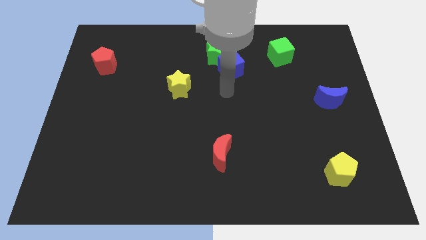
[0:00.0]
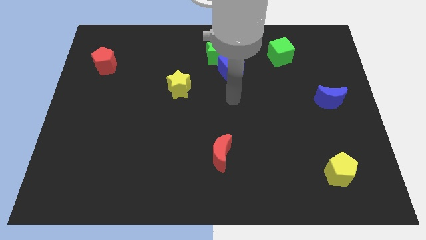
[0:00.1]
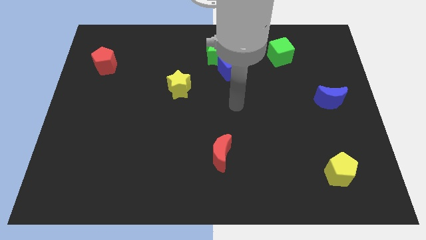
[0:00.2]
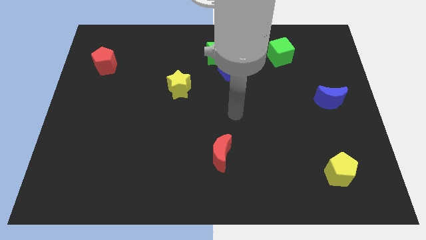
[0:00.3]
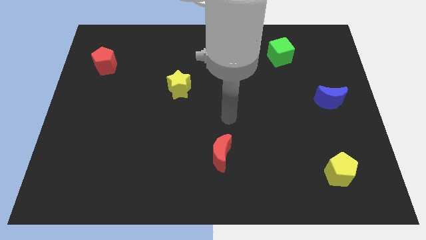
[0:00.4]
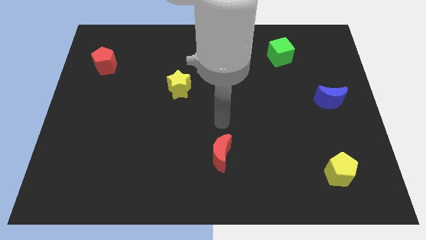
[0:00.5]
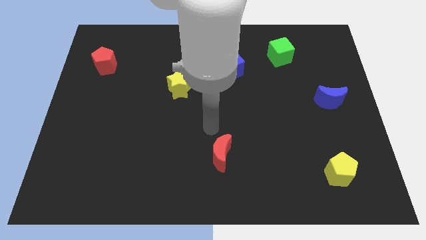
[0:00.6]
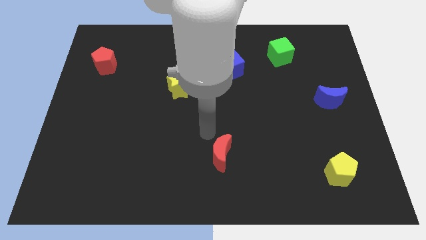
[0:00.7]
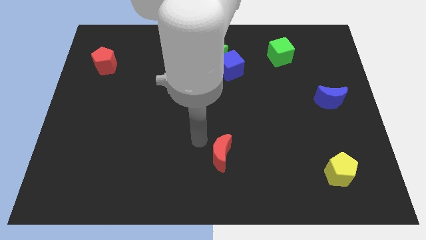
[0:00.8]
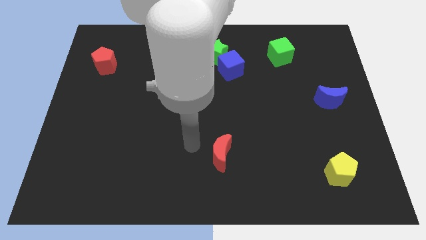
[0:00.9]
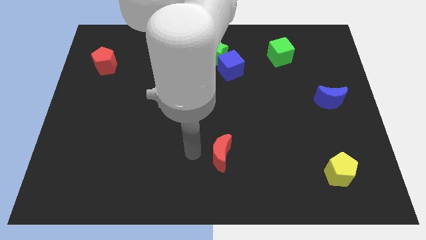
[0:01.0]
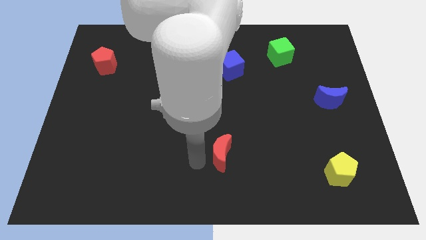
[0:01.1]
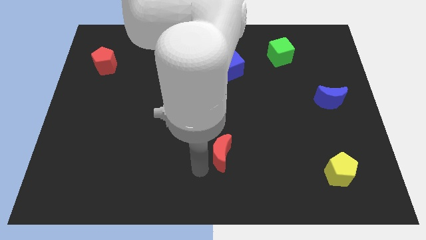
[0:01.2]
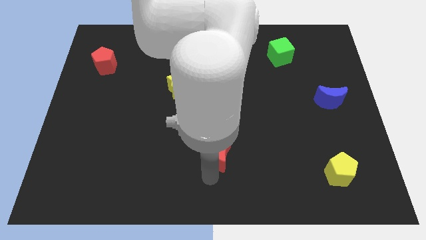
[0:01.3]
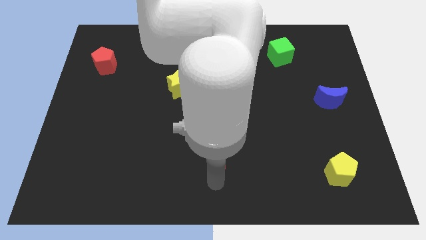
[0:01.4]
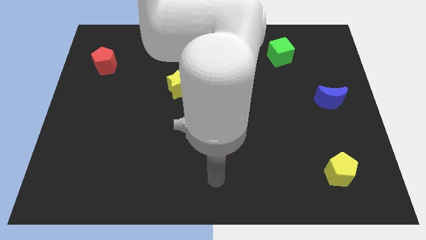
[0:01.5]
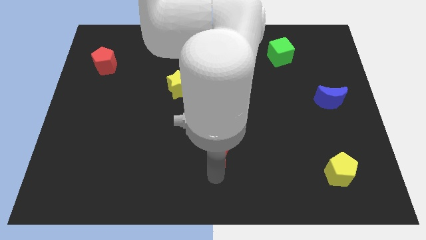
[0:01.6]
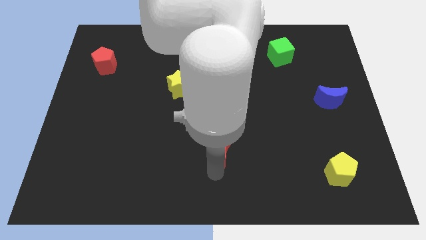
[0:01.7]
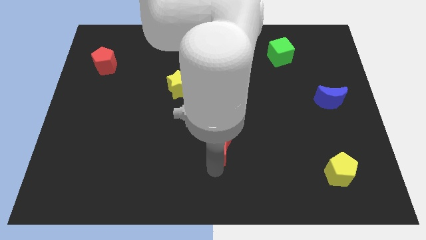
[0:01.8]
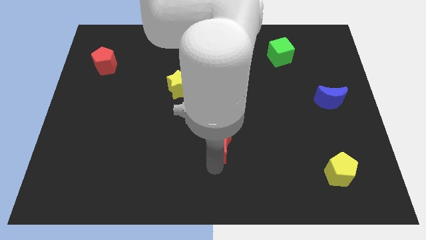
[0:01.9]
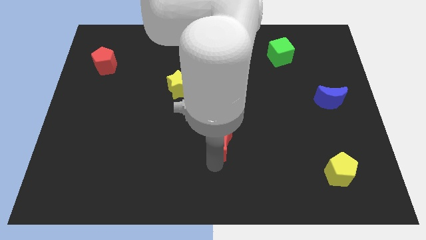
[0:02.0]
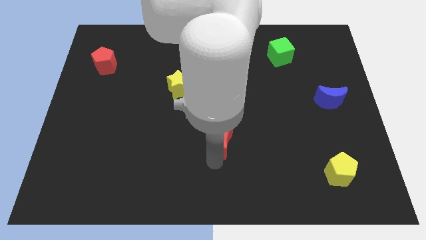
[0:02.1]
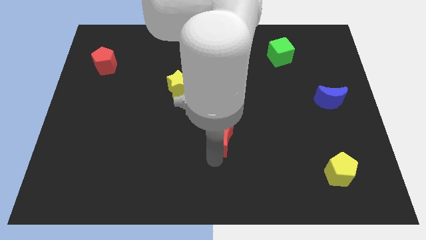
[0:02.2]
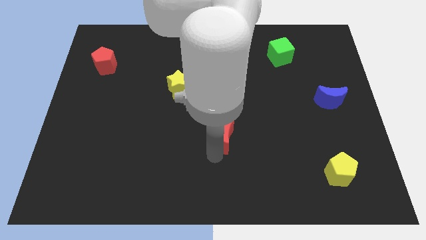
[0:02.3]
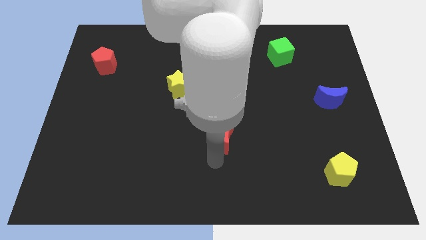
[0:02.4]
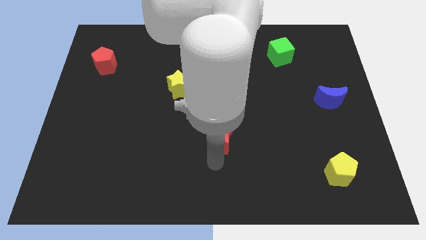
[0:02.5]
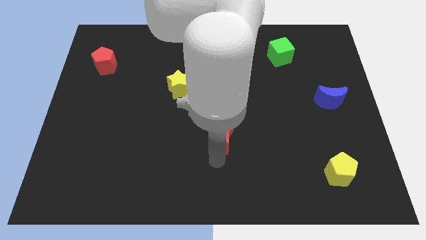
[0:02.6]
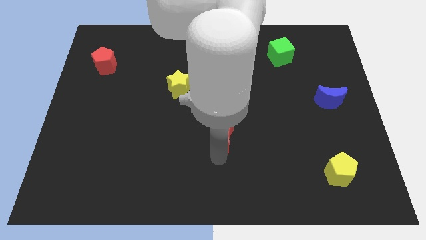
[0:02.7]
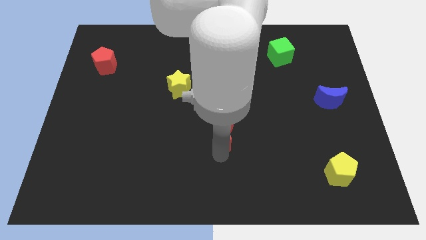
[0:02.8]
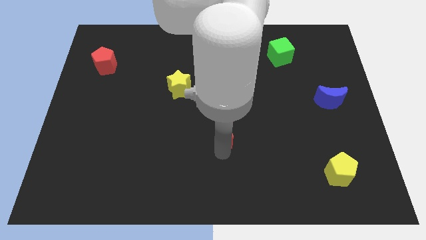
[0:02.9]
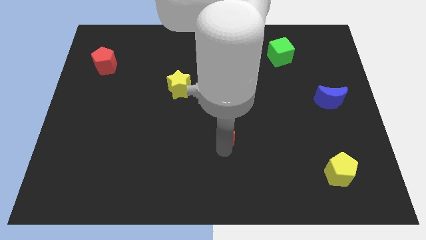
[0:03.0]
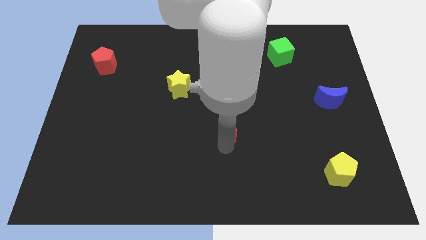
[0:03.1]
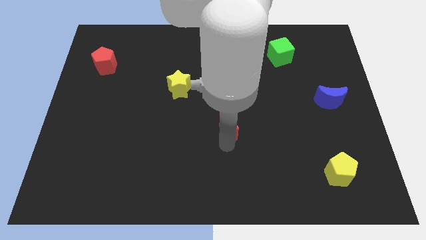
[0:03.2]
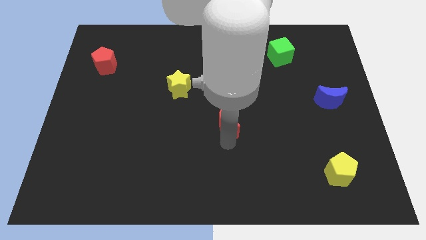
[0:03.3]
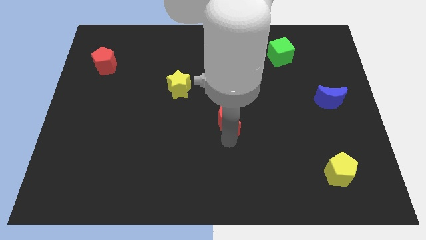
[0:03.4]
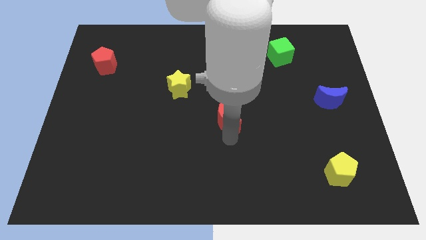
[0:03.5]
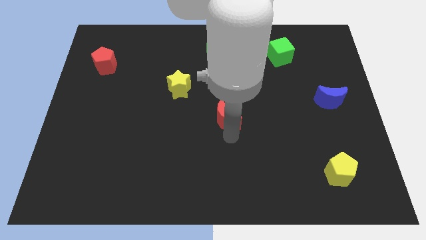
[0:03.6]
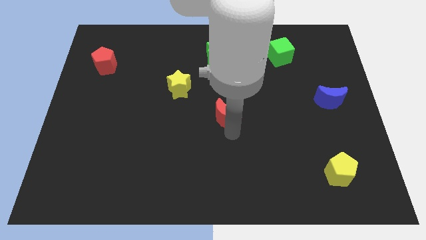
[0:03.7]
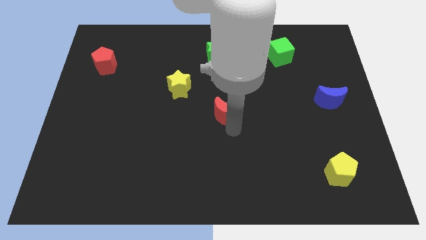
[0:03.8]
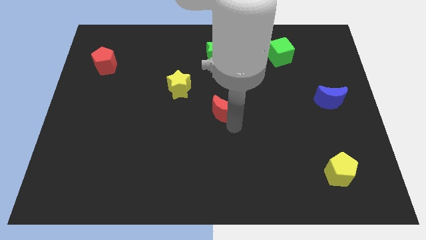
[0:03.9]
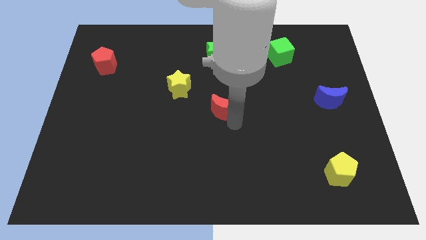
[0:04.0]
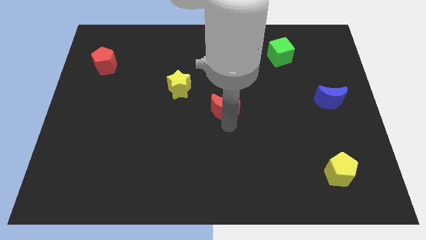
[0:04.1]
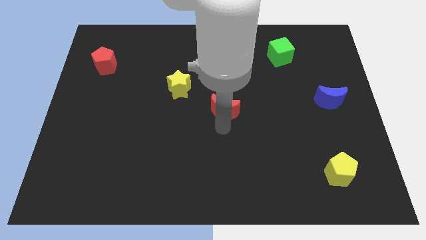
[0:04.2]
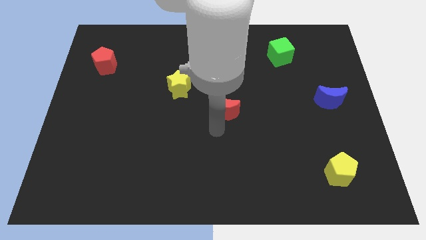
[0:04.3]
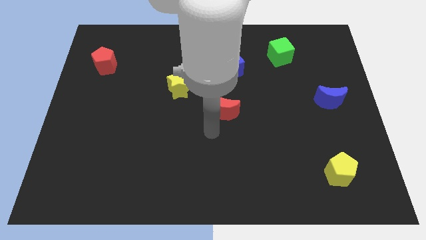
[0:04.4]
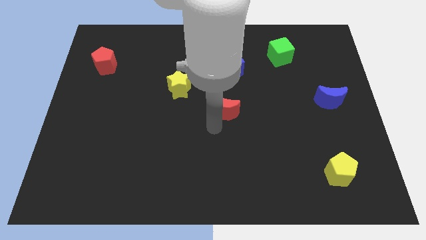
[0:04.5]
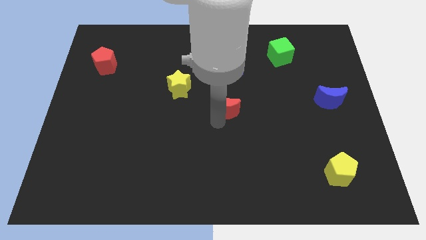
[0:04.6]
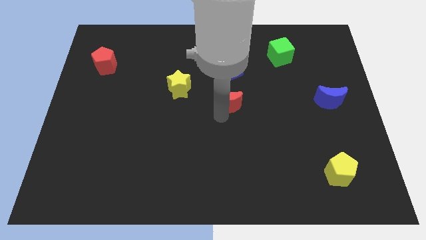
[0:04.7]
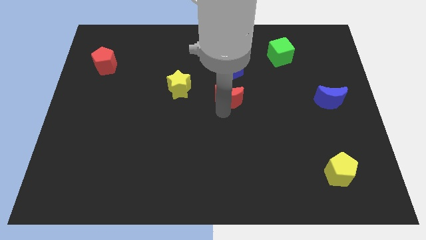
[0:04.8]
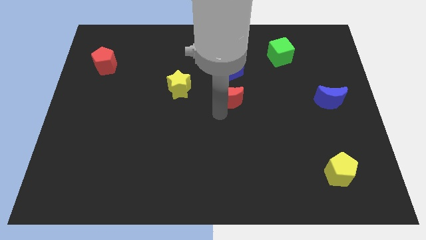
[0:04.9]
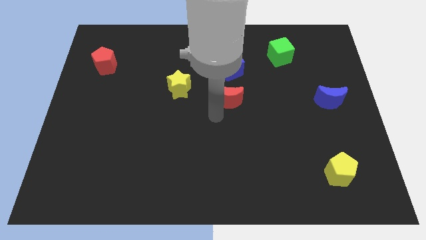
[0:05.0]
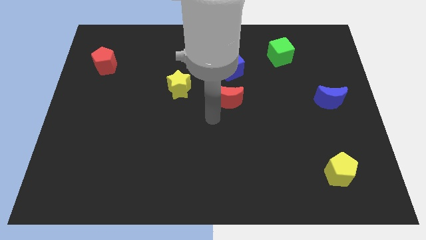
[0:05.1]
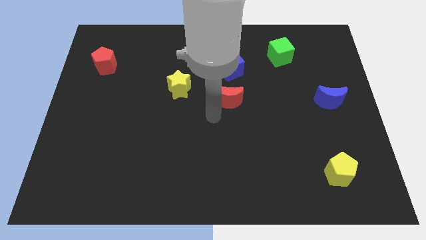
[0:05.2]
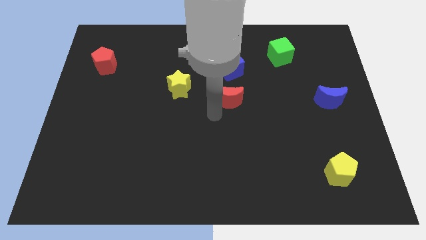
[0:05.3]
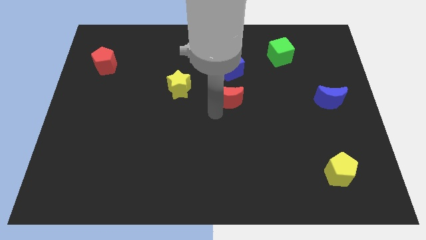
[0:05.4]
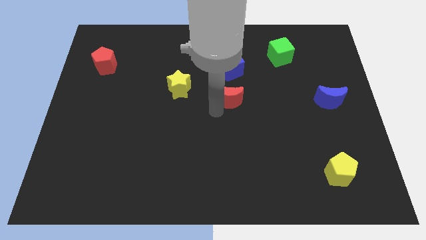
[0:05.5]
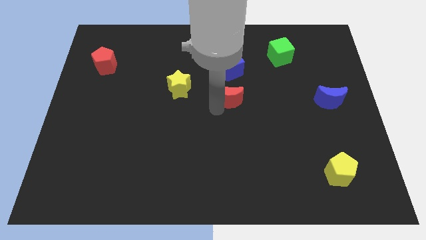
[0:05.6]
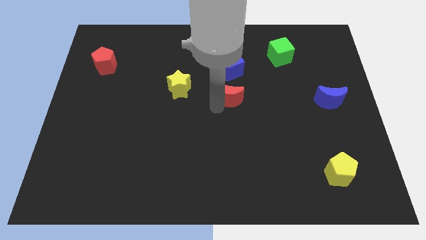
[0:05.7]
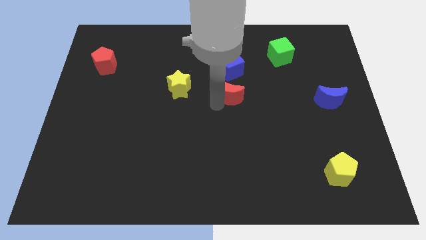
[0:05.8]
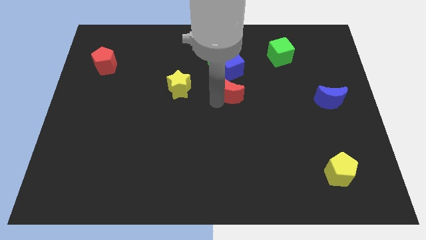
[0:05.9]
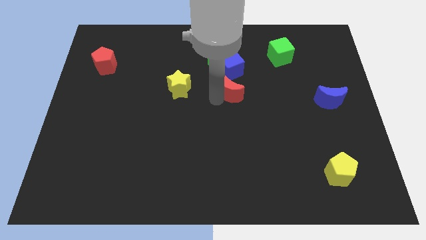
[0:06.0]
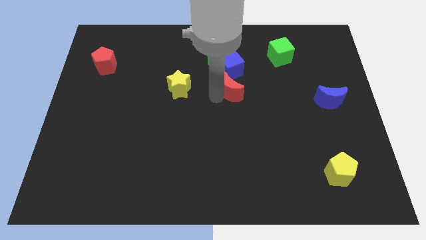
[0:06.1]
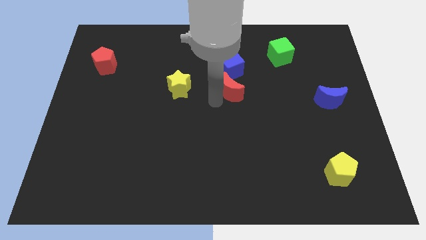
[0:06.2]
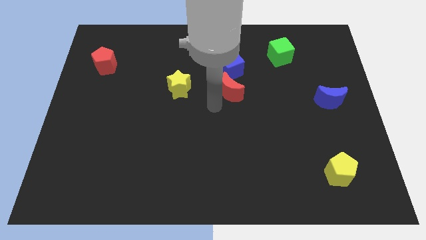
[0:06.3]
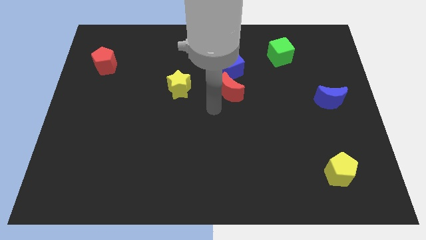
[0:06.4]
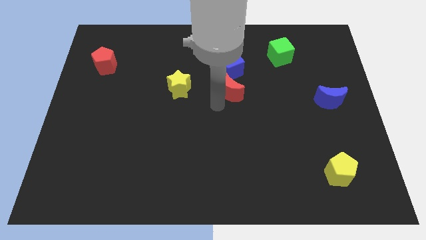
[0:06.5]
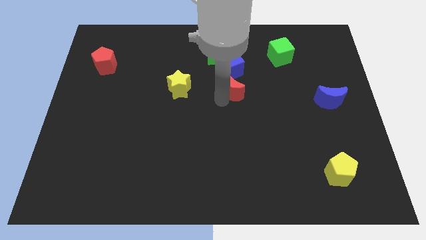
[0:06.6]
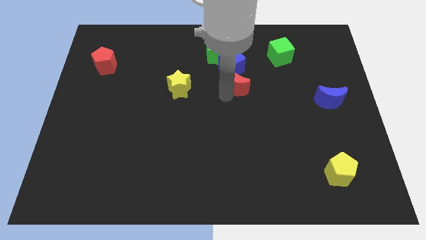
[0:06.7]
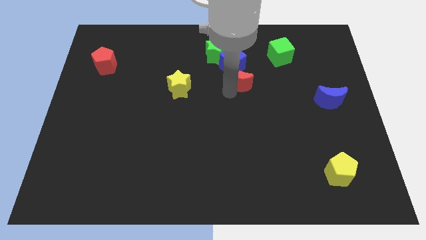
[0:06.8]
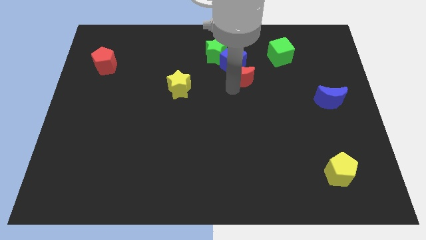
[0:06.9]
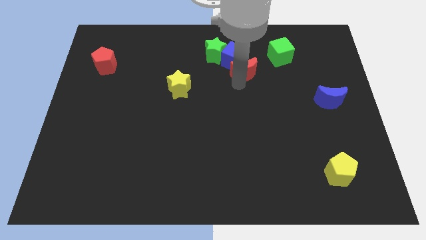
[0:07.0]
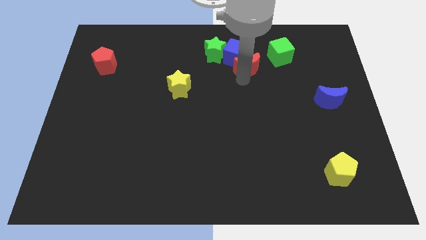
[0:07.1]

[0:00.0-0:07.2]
put the red moon left of the green cube

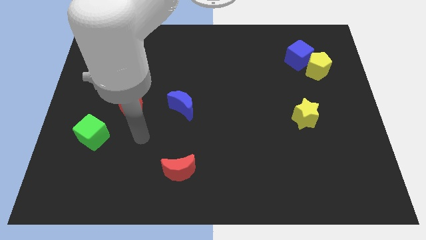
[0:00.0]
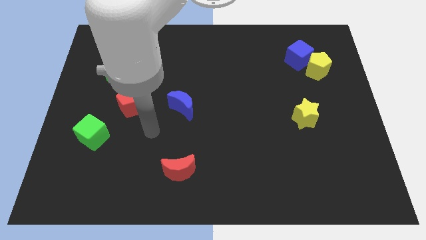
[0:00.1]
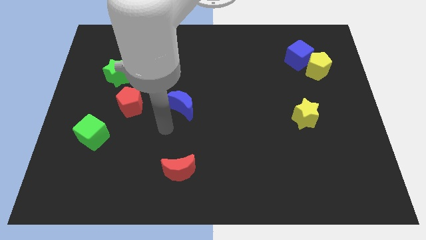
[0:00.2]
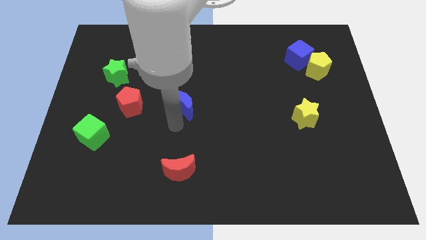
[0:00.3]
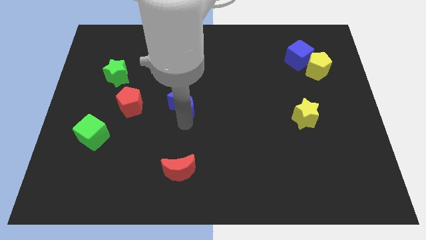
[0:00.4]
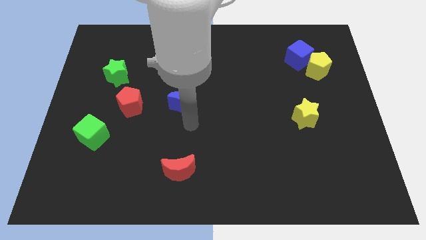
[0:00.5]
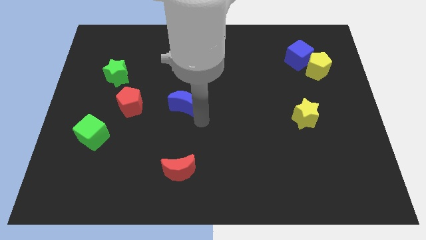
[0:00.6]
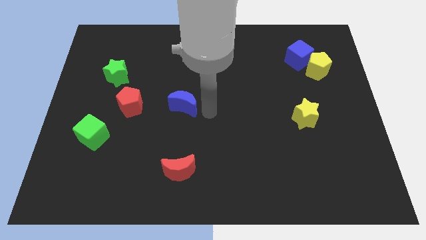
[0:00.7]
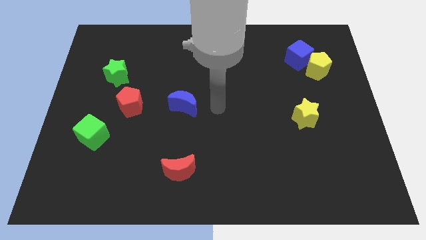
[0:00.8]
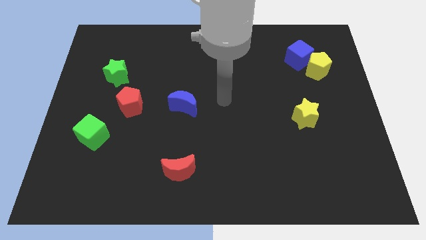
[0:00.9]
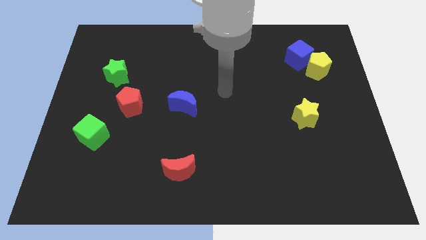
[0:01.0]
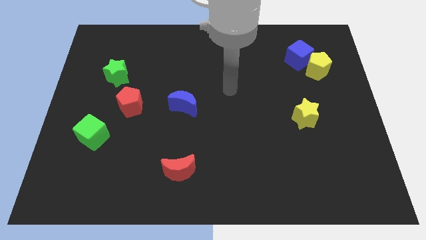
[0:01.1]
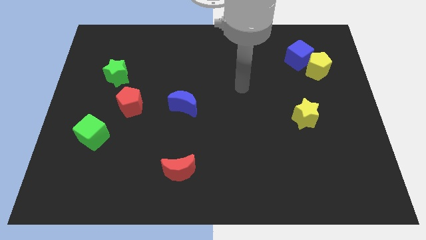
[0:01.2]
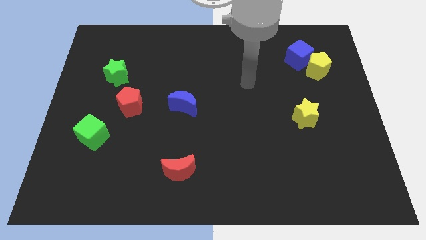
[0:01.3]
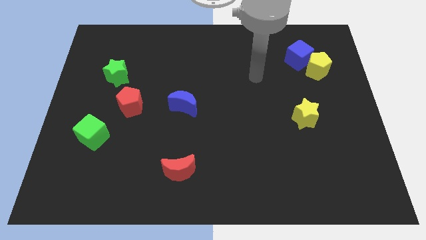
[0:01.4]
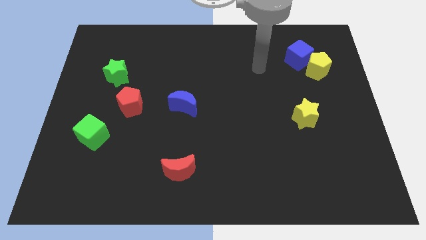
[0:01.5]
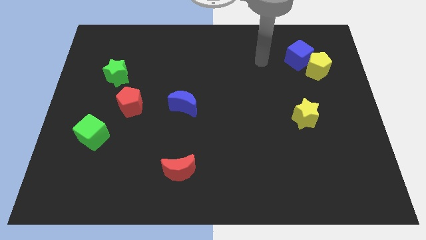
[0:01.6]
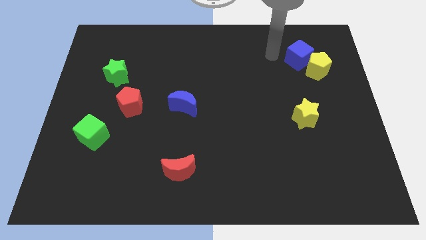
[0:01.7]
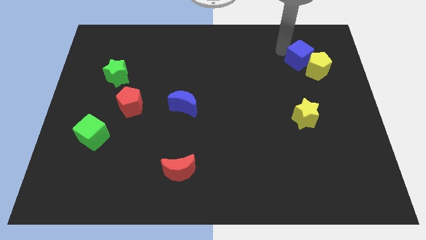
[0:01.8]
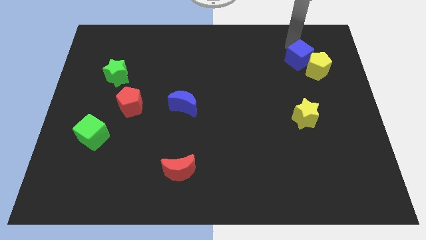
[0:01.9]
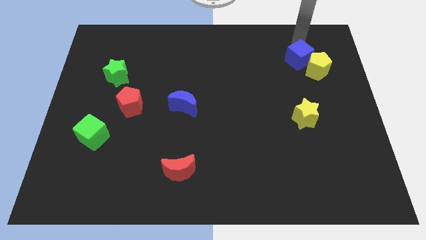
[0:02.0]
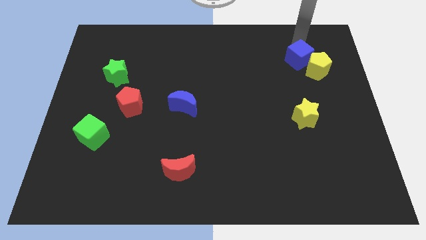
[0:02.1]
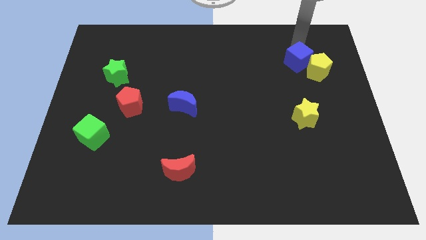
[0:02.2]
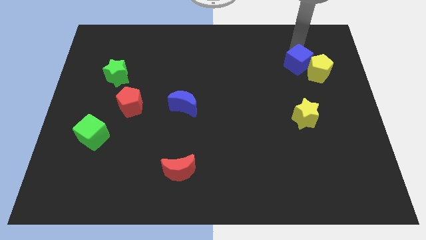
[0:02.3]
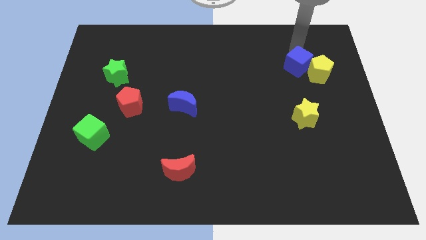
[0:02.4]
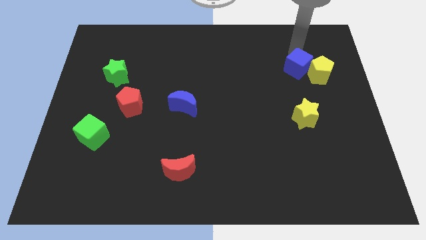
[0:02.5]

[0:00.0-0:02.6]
push the blue cube above the yellow star
